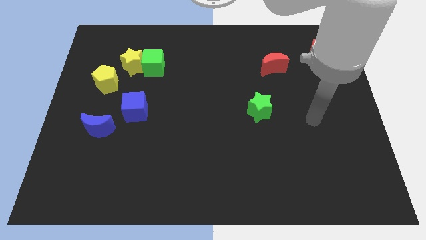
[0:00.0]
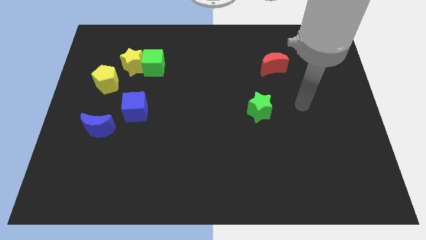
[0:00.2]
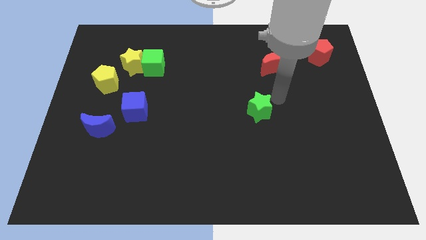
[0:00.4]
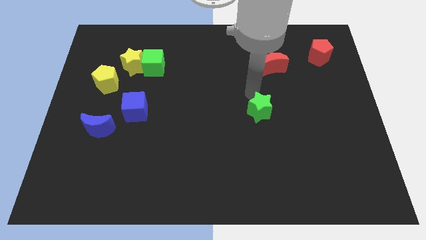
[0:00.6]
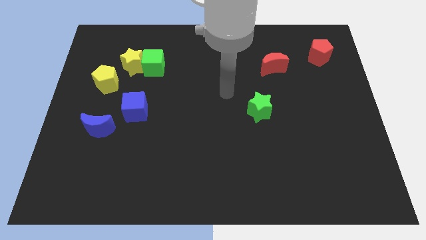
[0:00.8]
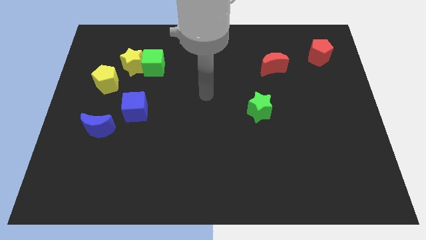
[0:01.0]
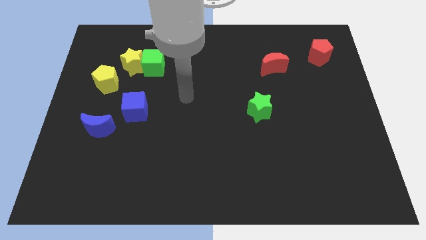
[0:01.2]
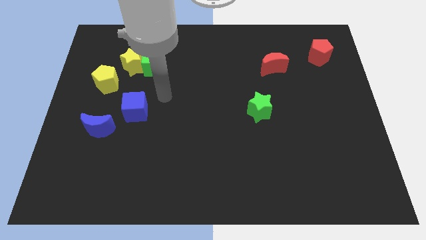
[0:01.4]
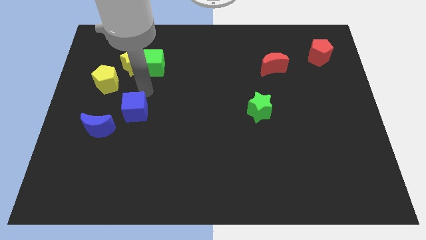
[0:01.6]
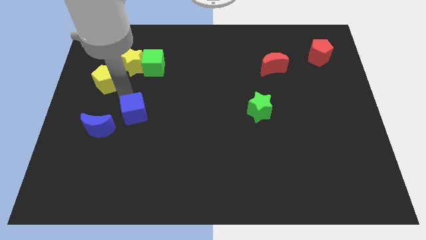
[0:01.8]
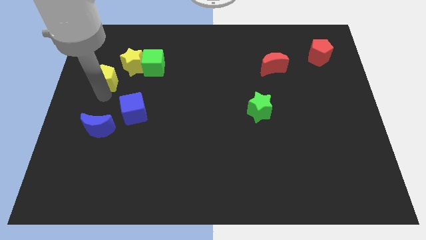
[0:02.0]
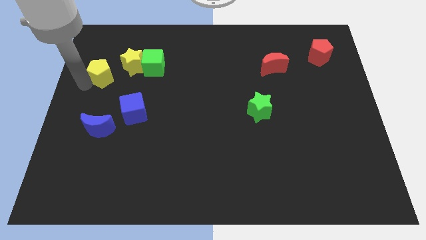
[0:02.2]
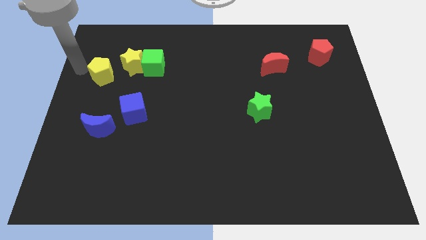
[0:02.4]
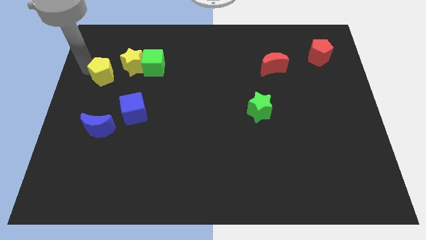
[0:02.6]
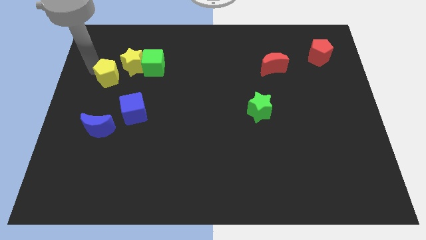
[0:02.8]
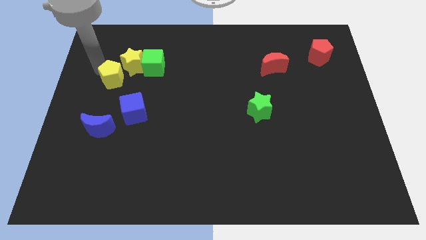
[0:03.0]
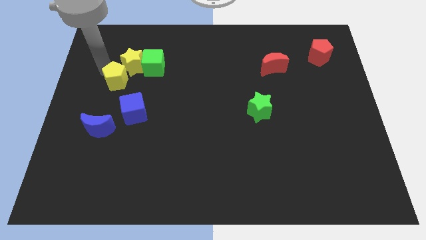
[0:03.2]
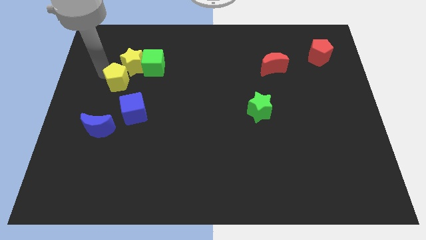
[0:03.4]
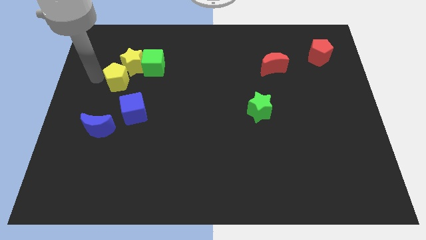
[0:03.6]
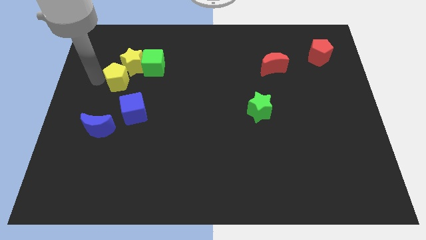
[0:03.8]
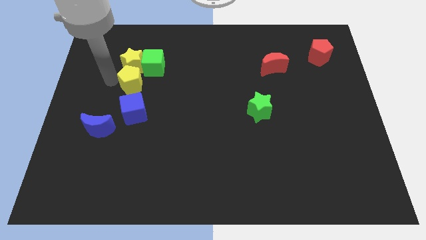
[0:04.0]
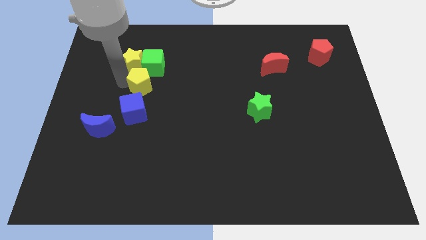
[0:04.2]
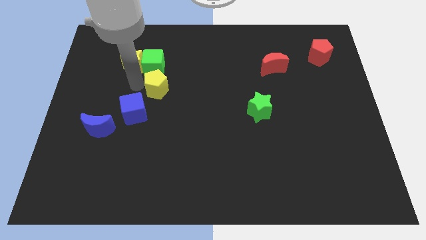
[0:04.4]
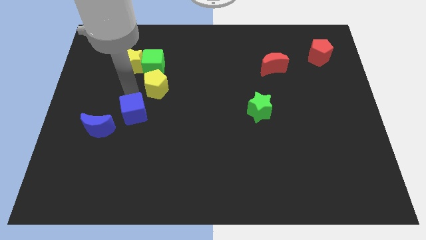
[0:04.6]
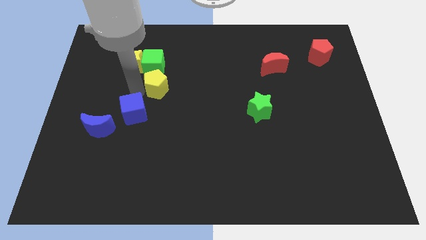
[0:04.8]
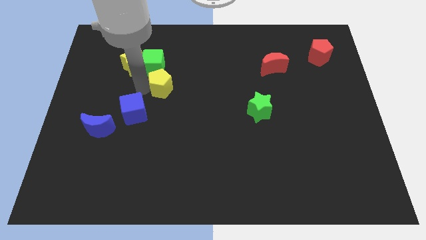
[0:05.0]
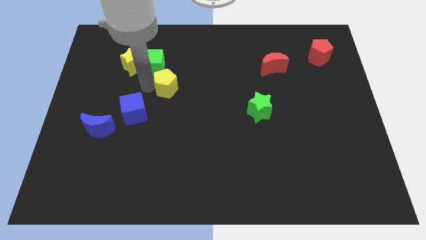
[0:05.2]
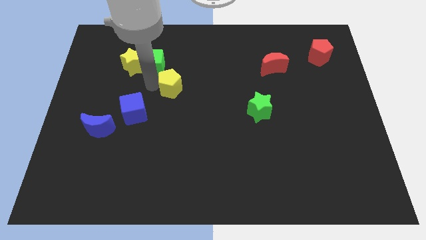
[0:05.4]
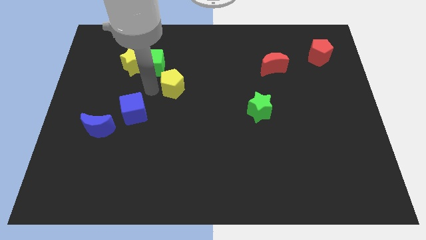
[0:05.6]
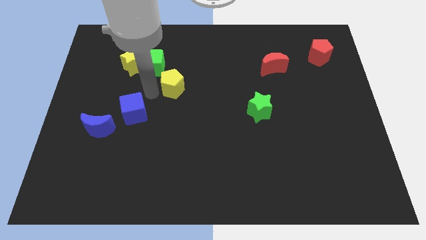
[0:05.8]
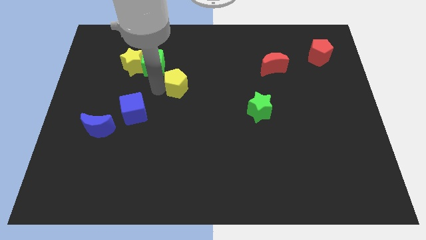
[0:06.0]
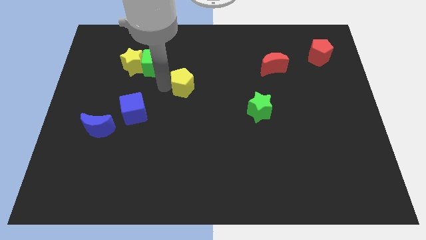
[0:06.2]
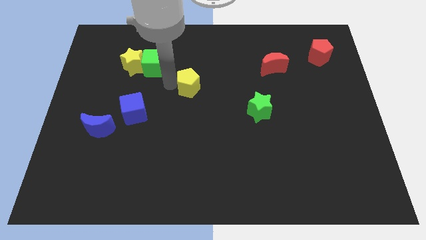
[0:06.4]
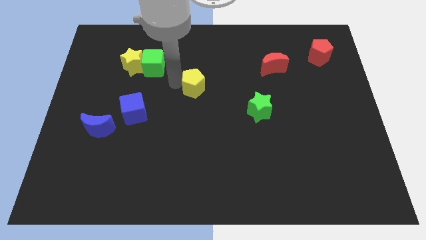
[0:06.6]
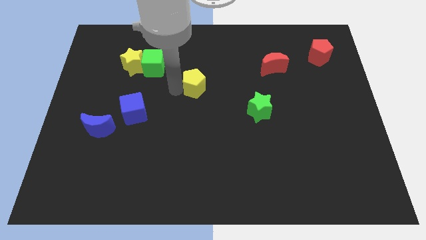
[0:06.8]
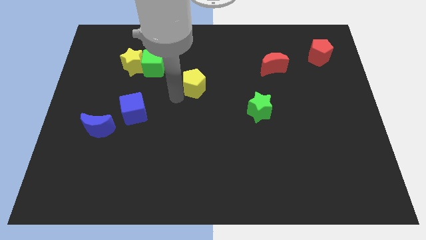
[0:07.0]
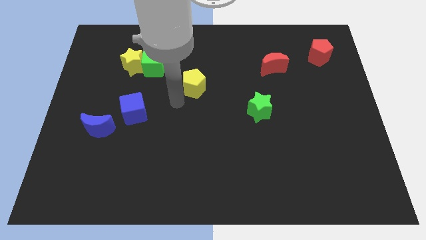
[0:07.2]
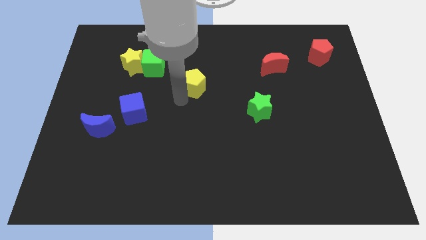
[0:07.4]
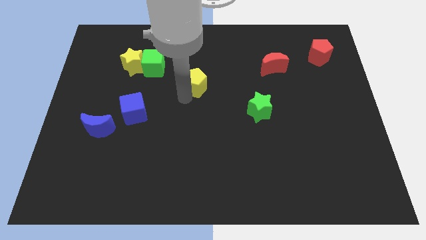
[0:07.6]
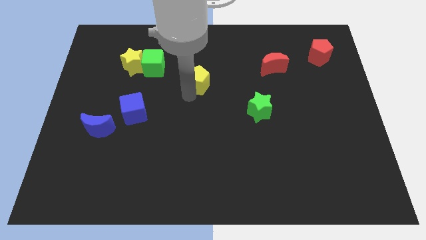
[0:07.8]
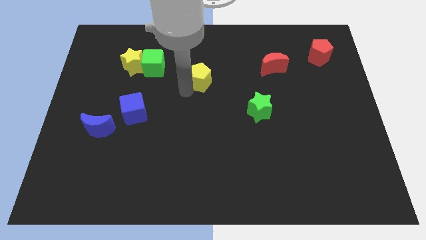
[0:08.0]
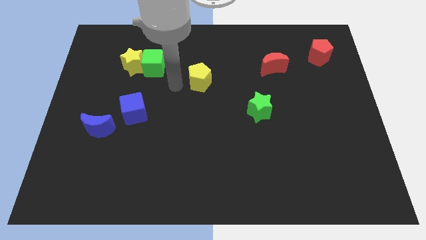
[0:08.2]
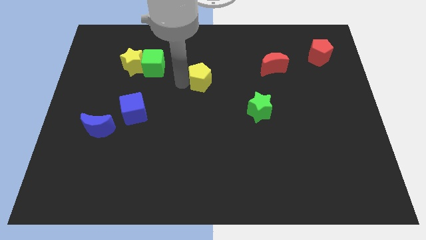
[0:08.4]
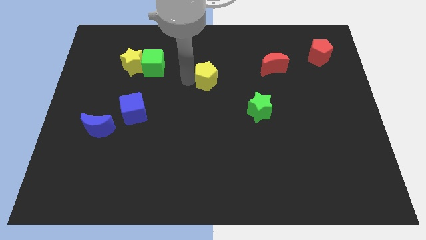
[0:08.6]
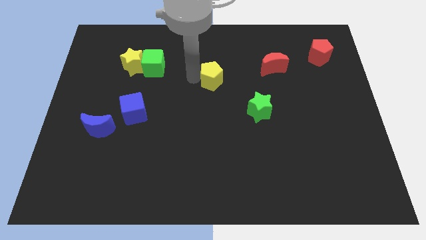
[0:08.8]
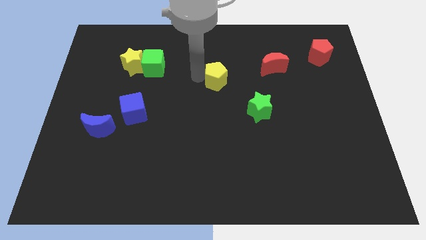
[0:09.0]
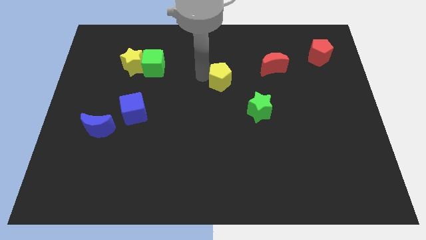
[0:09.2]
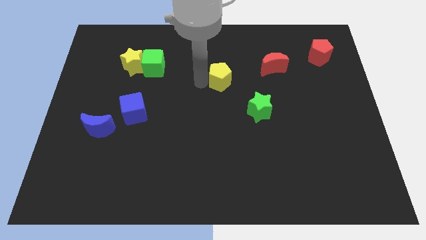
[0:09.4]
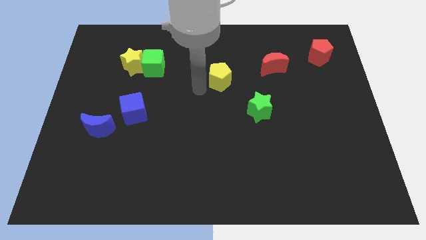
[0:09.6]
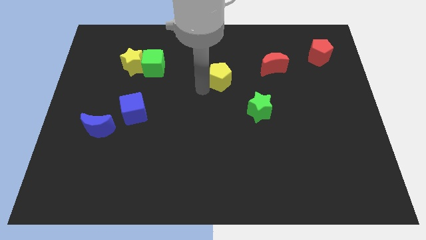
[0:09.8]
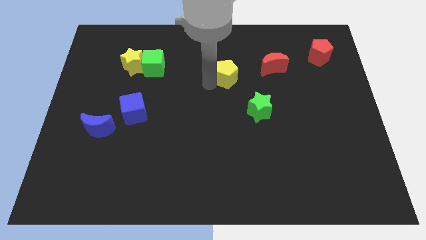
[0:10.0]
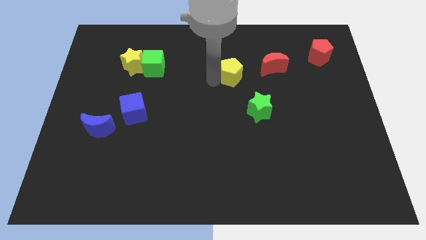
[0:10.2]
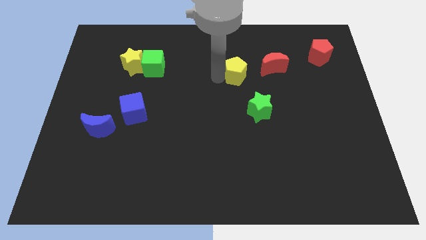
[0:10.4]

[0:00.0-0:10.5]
put the yellow pentagon to the top side of the green star

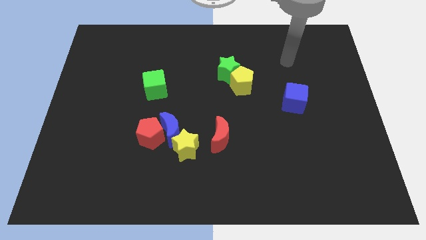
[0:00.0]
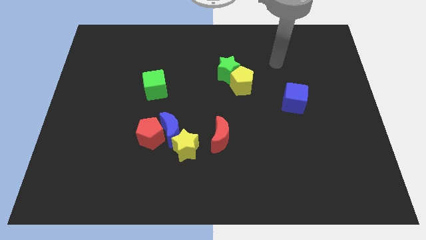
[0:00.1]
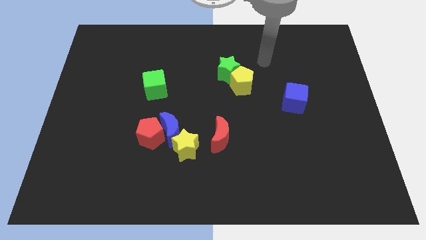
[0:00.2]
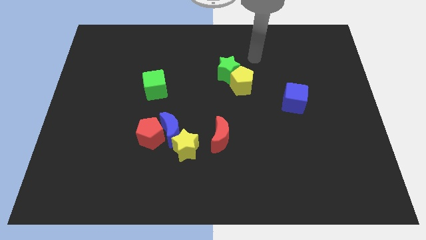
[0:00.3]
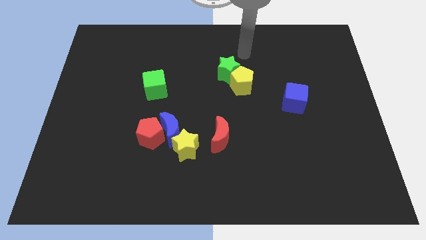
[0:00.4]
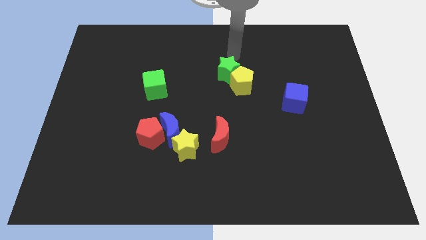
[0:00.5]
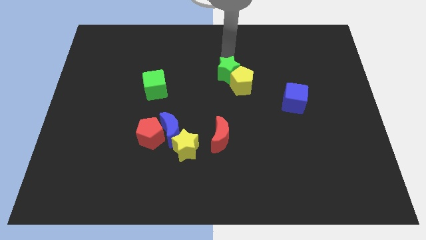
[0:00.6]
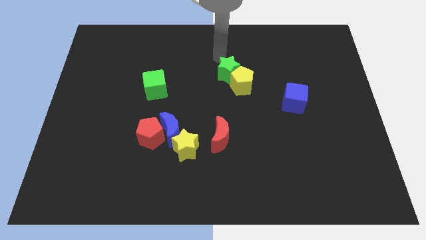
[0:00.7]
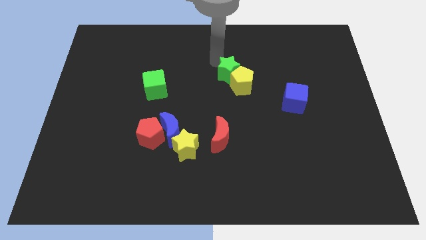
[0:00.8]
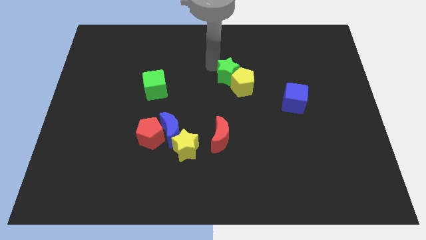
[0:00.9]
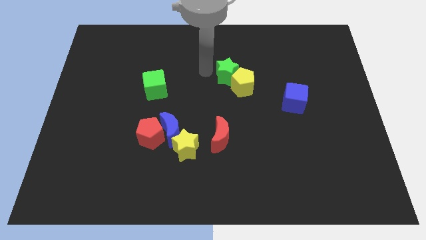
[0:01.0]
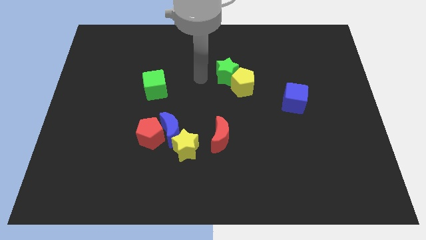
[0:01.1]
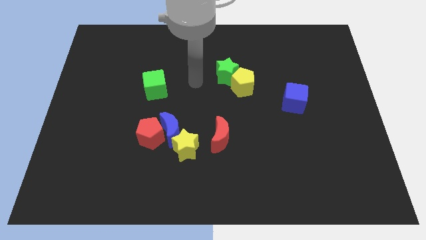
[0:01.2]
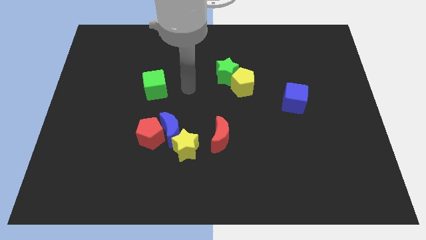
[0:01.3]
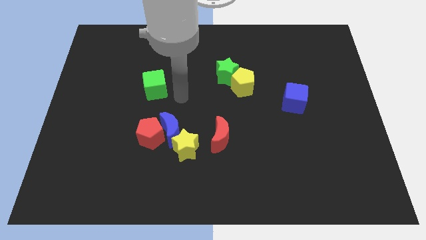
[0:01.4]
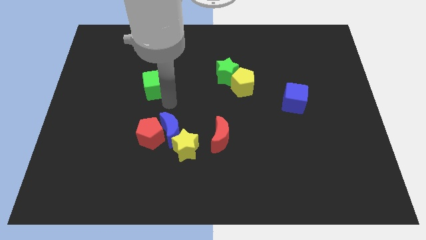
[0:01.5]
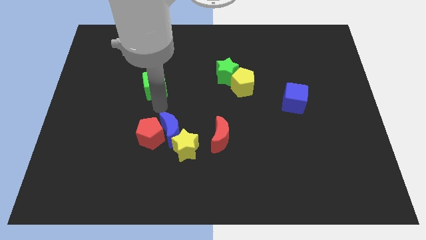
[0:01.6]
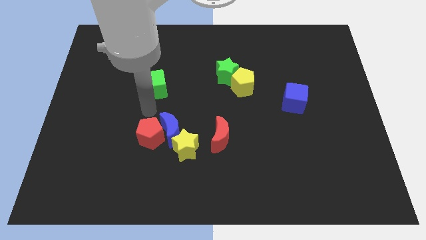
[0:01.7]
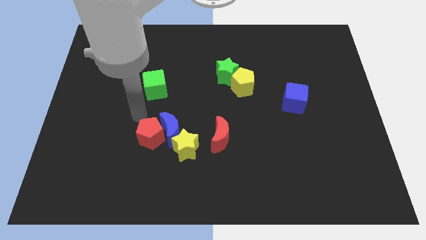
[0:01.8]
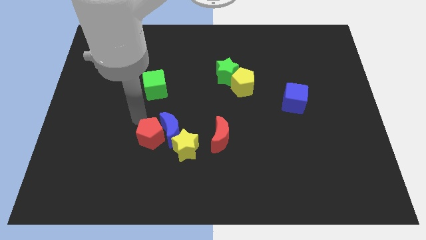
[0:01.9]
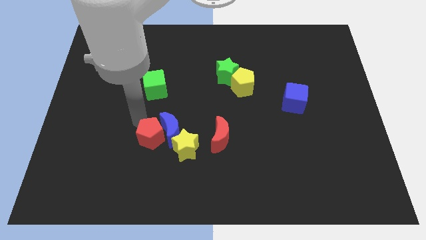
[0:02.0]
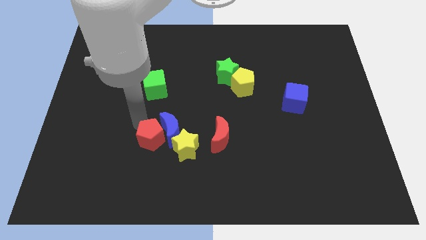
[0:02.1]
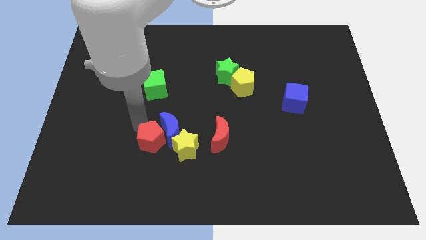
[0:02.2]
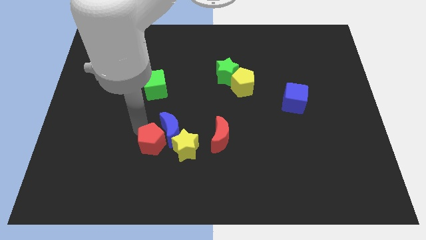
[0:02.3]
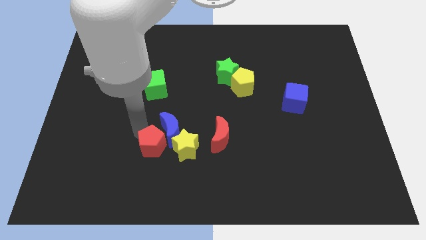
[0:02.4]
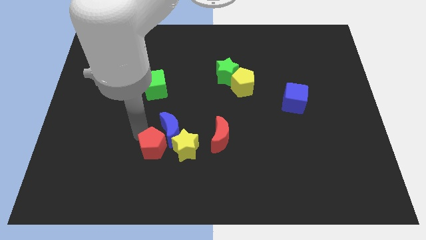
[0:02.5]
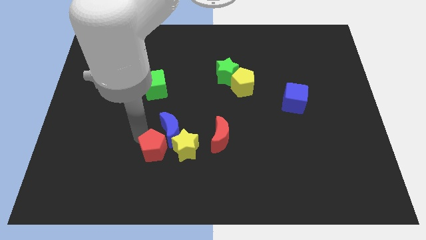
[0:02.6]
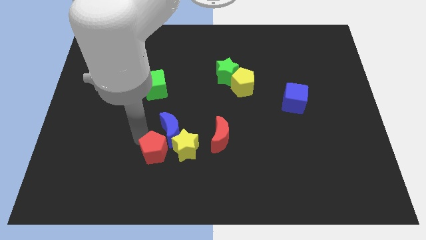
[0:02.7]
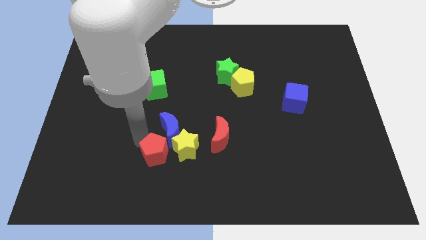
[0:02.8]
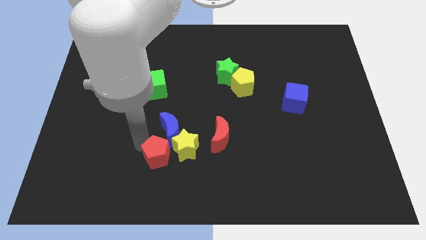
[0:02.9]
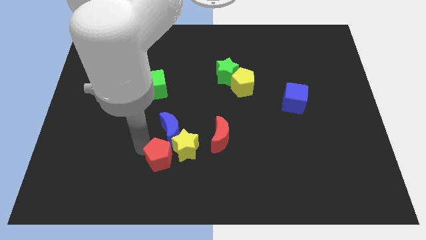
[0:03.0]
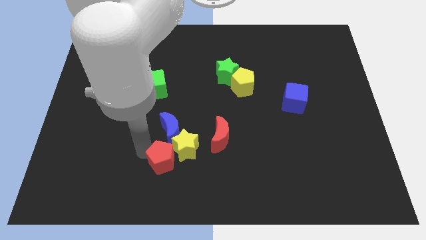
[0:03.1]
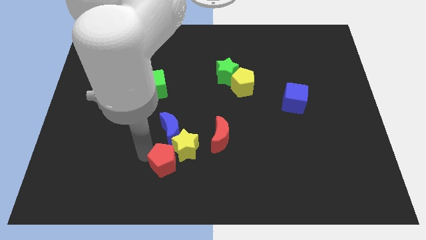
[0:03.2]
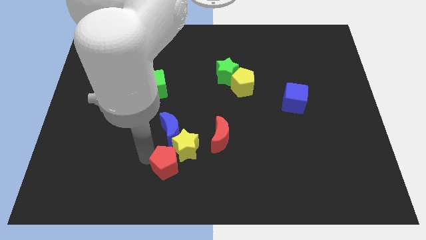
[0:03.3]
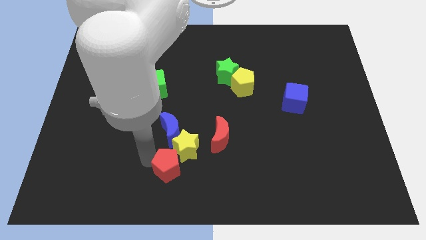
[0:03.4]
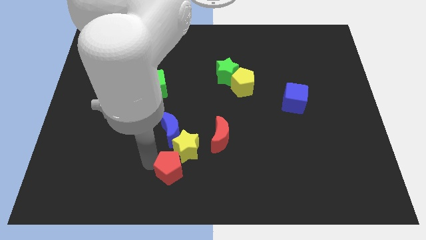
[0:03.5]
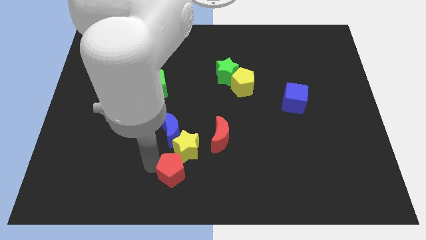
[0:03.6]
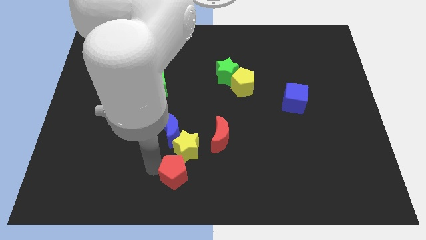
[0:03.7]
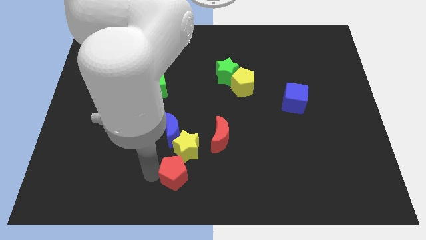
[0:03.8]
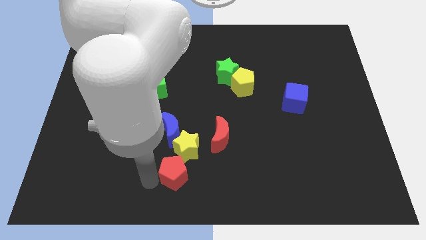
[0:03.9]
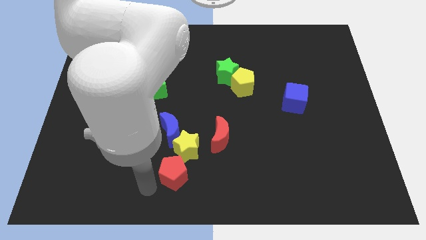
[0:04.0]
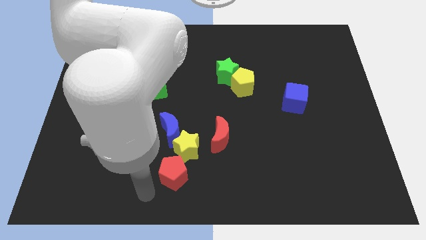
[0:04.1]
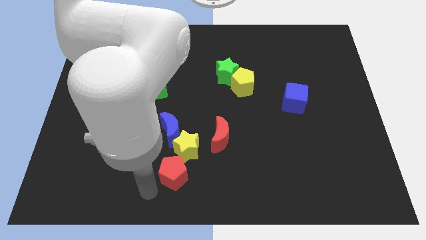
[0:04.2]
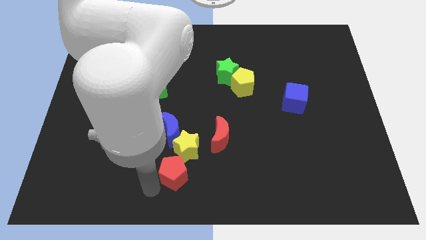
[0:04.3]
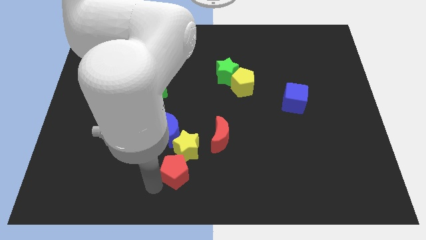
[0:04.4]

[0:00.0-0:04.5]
move the red pentagon to the bottom left of the red moon
